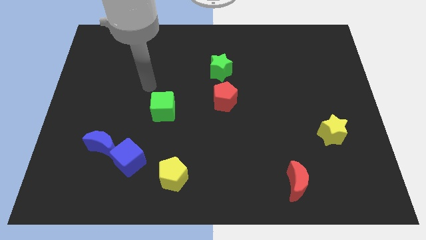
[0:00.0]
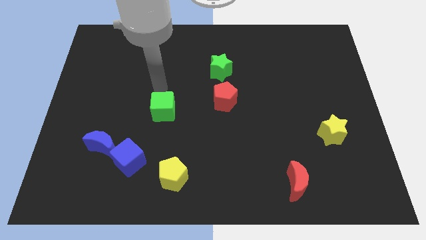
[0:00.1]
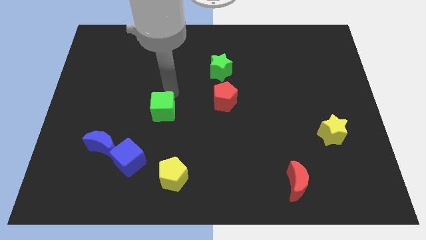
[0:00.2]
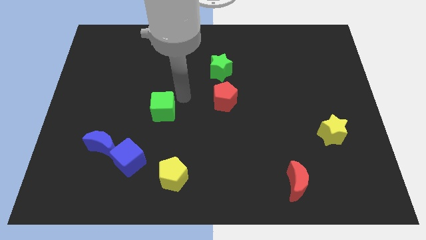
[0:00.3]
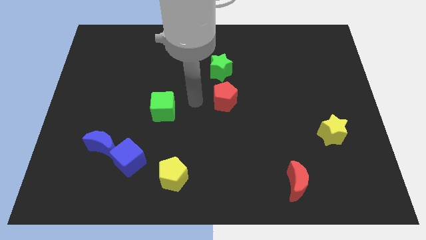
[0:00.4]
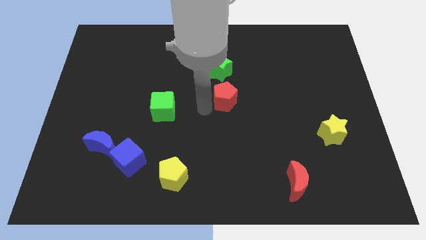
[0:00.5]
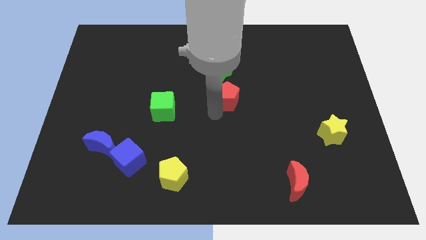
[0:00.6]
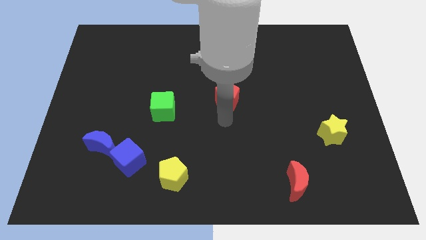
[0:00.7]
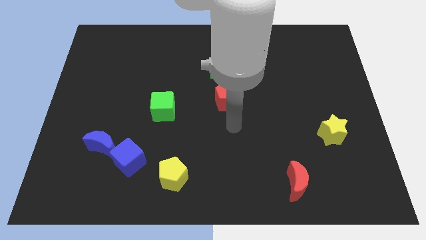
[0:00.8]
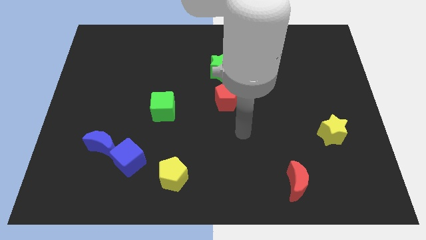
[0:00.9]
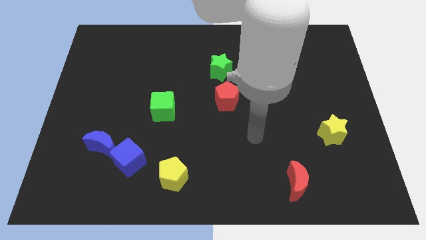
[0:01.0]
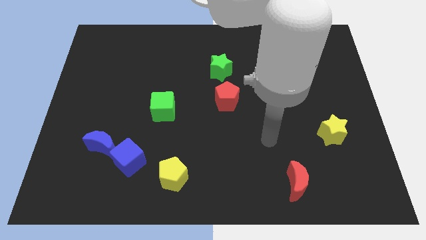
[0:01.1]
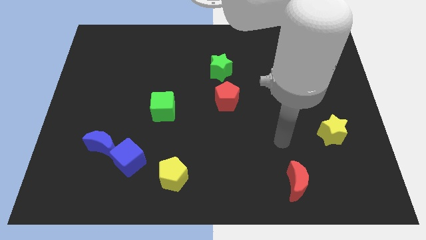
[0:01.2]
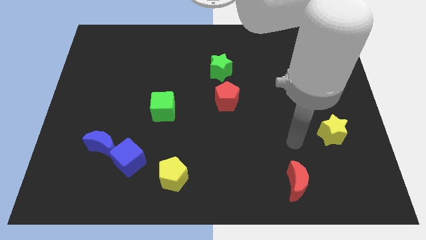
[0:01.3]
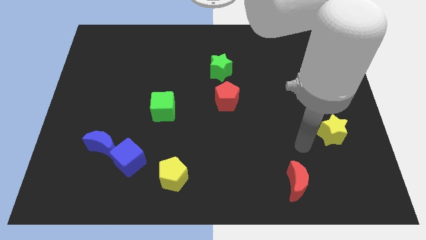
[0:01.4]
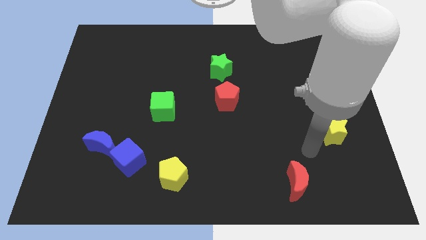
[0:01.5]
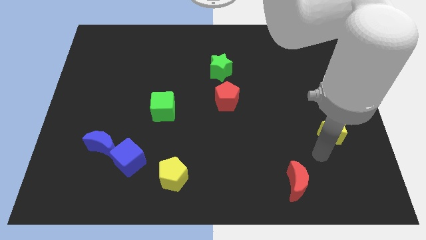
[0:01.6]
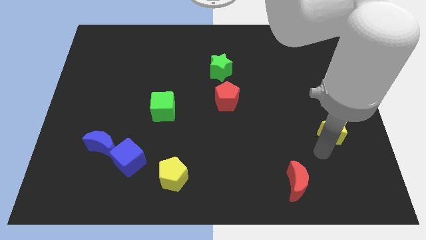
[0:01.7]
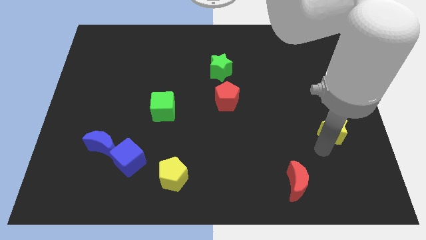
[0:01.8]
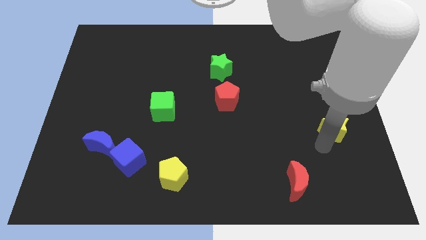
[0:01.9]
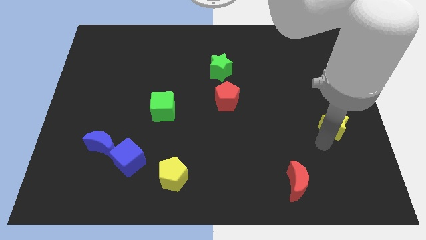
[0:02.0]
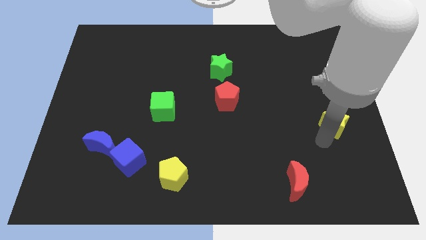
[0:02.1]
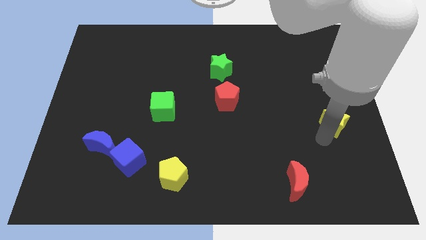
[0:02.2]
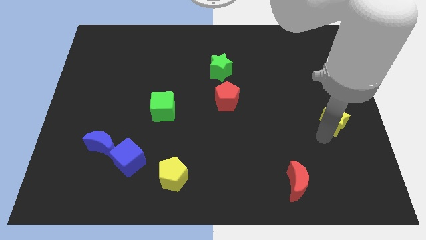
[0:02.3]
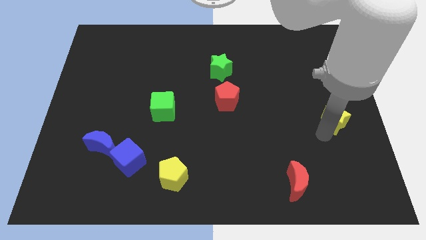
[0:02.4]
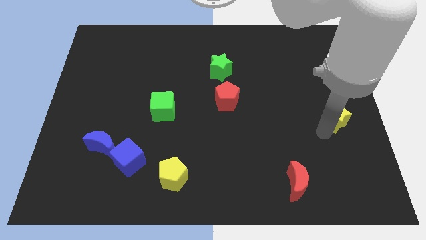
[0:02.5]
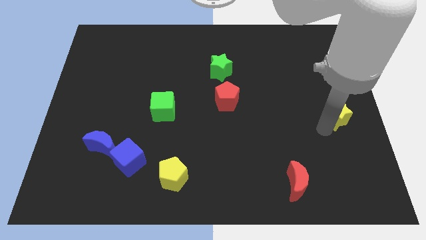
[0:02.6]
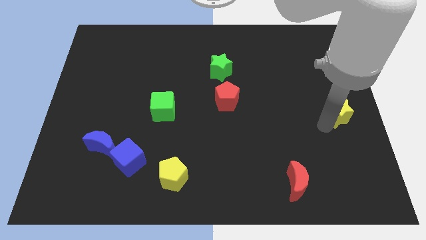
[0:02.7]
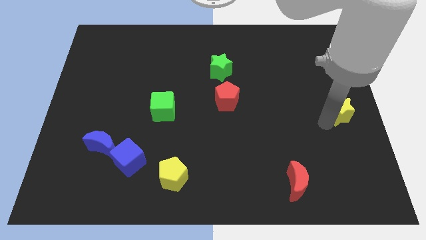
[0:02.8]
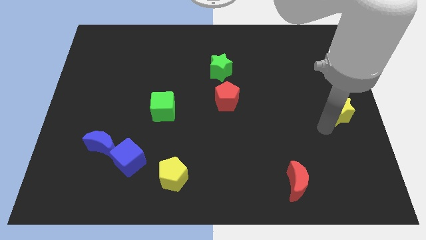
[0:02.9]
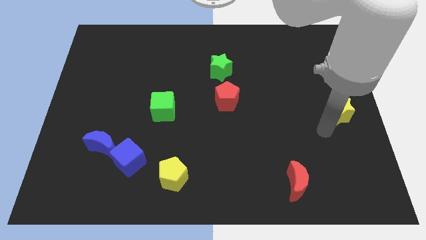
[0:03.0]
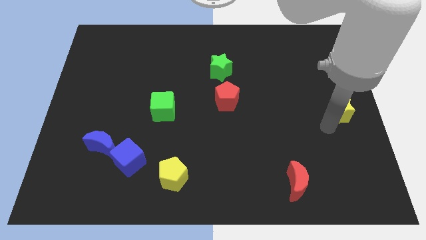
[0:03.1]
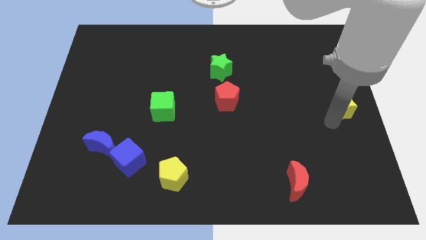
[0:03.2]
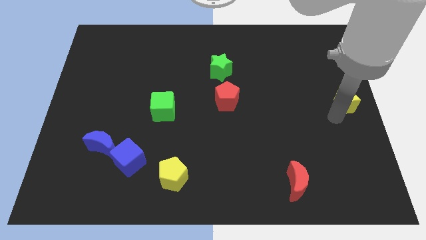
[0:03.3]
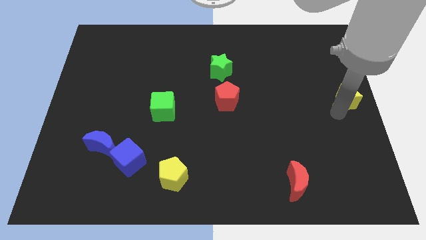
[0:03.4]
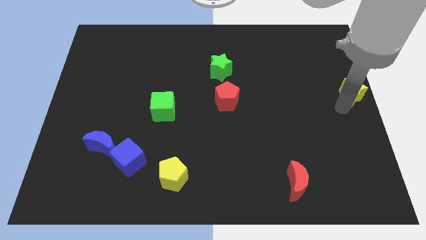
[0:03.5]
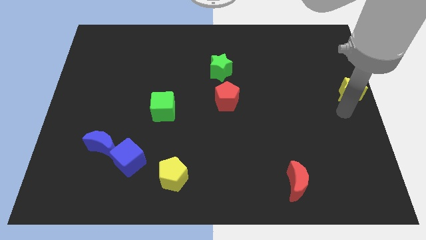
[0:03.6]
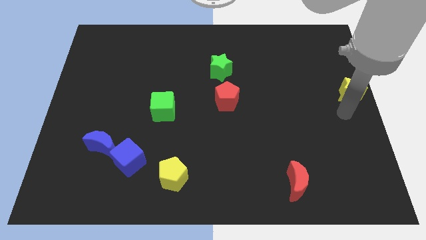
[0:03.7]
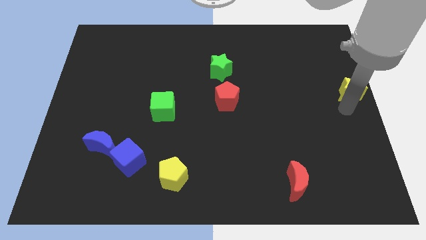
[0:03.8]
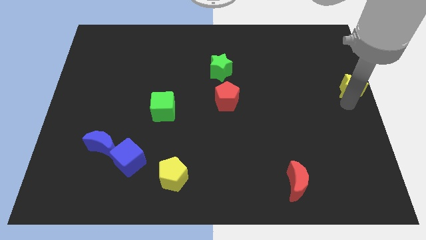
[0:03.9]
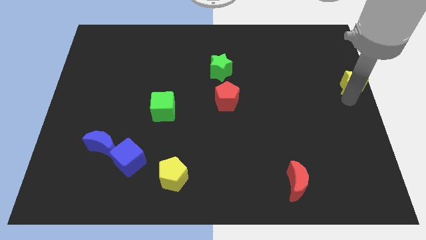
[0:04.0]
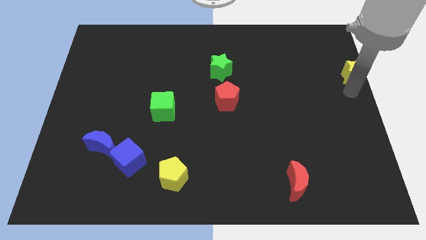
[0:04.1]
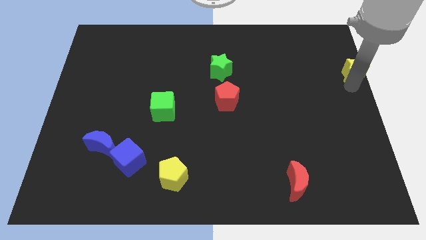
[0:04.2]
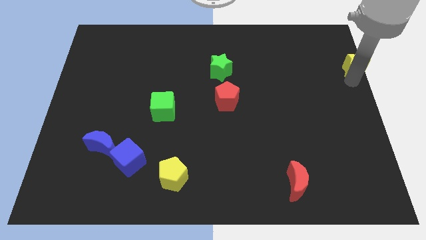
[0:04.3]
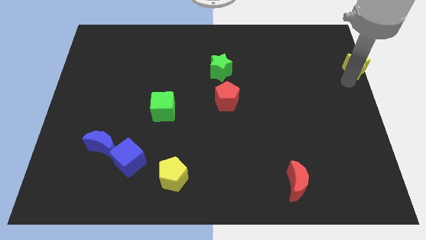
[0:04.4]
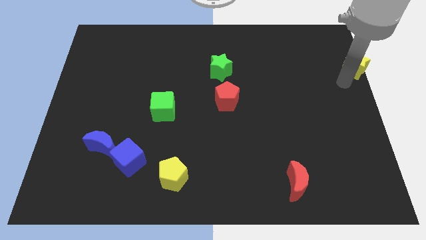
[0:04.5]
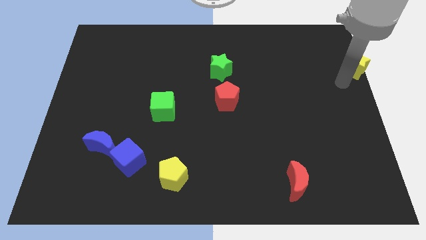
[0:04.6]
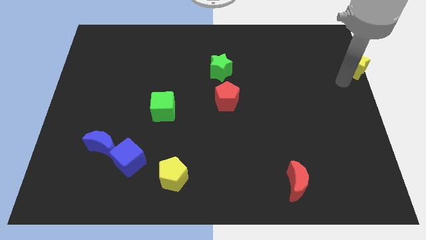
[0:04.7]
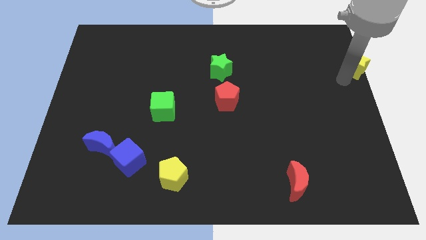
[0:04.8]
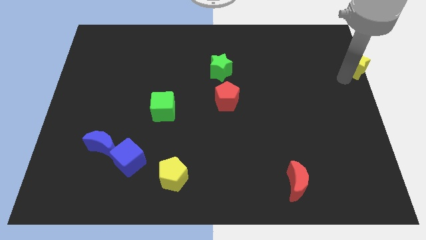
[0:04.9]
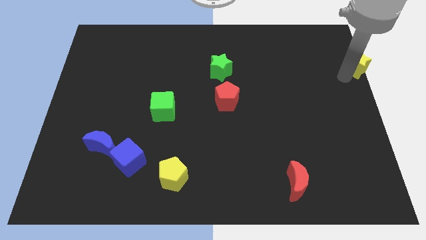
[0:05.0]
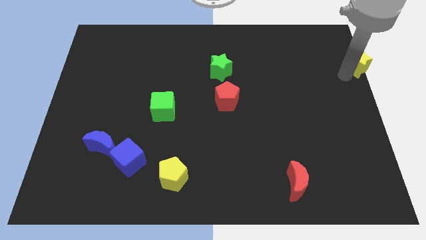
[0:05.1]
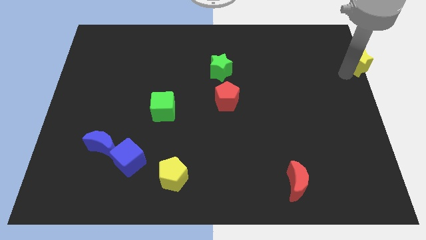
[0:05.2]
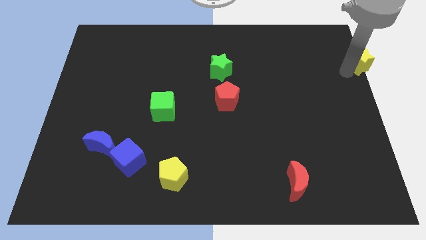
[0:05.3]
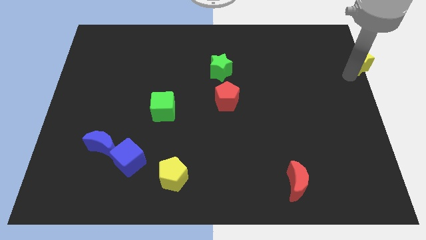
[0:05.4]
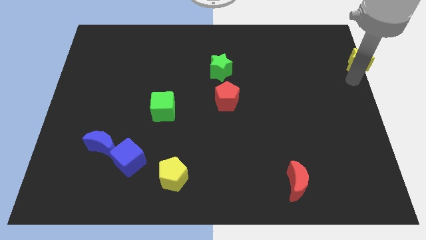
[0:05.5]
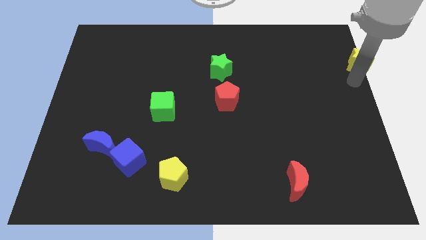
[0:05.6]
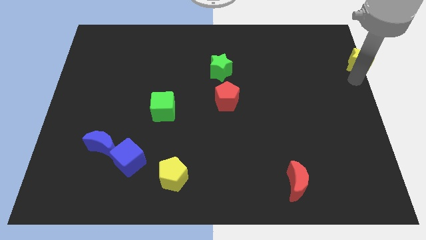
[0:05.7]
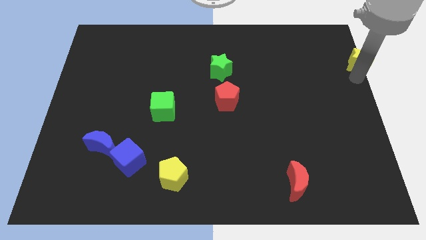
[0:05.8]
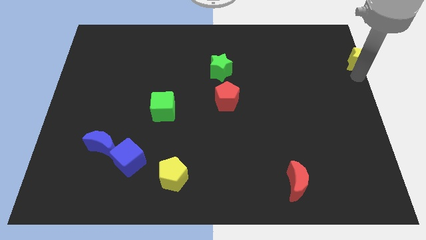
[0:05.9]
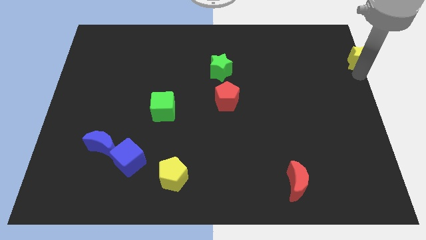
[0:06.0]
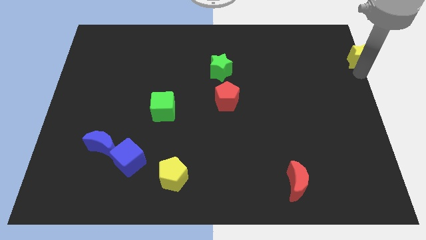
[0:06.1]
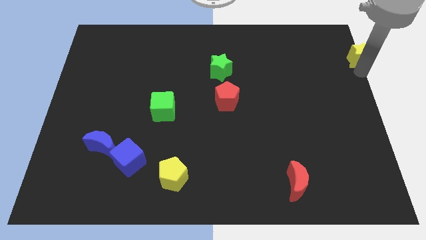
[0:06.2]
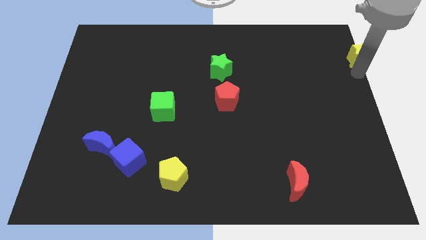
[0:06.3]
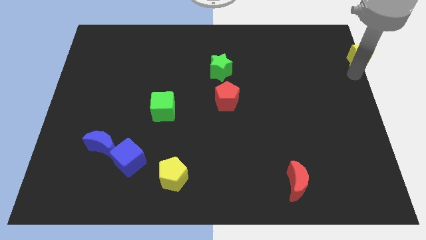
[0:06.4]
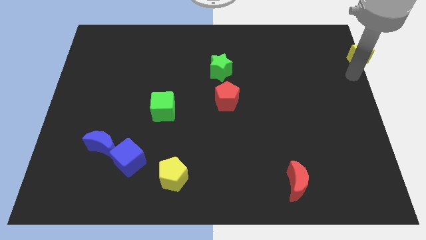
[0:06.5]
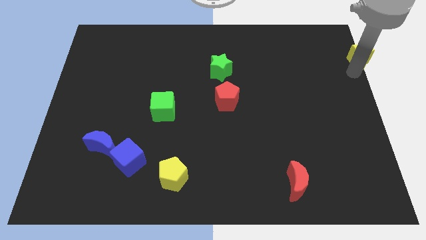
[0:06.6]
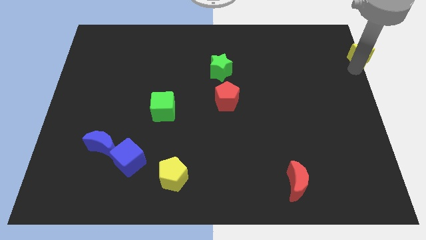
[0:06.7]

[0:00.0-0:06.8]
put the yellow star to the top right
